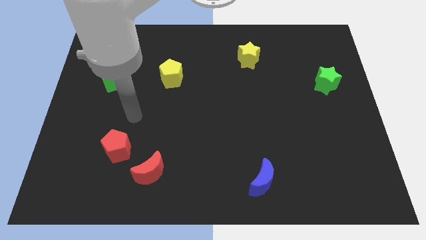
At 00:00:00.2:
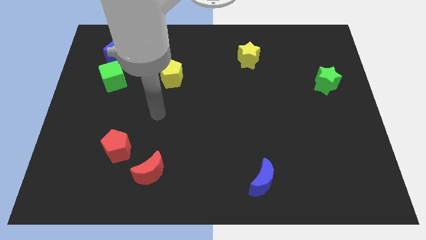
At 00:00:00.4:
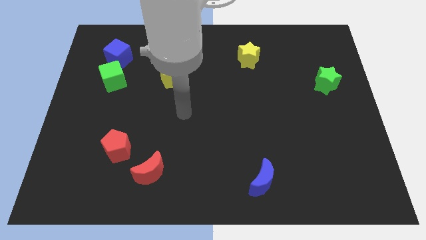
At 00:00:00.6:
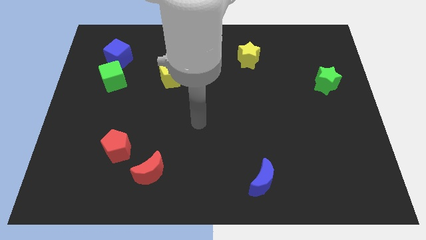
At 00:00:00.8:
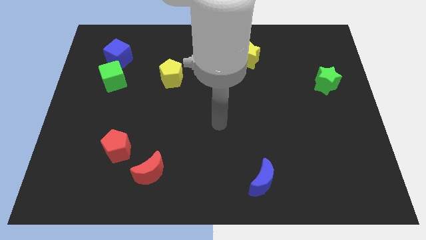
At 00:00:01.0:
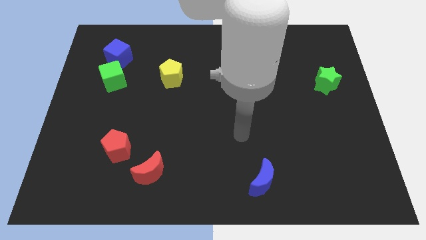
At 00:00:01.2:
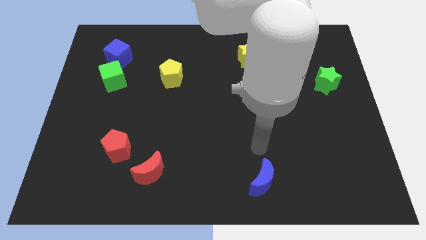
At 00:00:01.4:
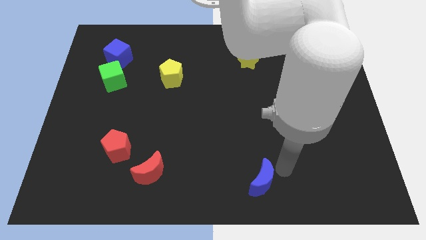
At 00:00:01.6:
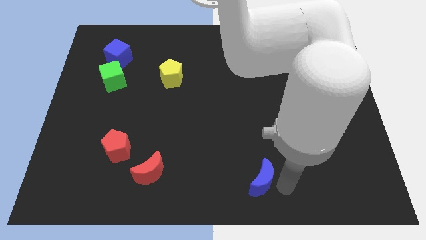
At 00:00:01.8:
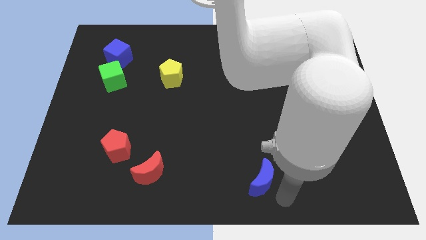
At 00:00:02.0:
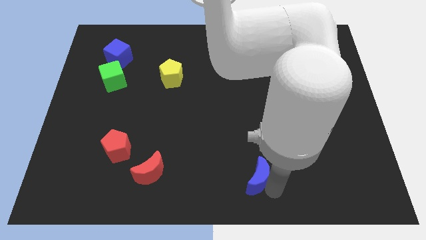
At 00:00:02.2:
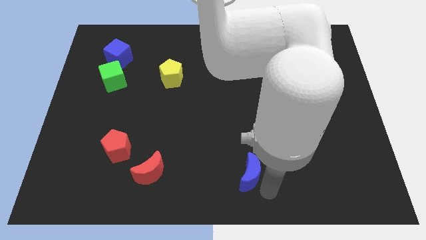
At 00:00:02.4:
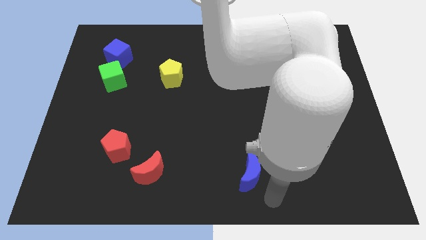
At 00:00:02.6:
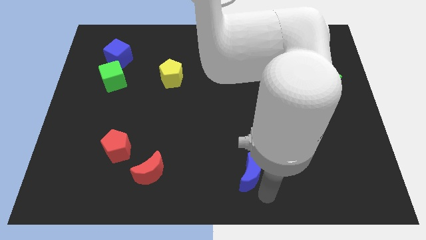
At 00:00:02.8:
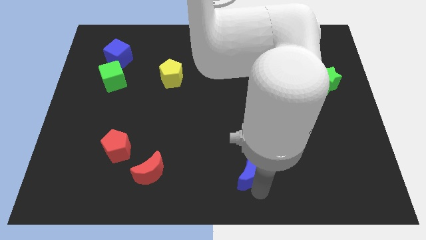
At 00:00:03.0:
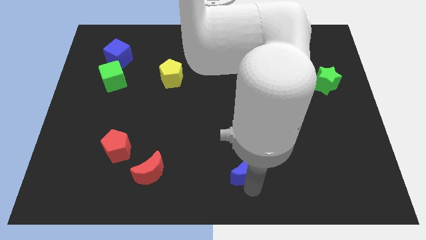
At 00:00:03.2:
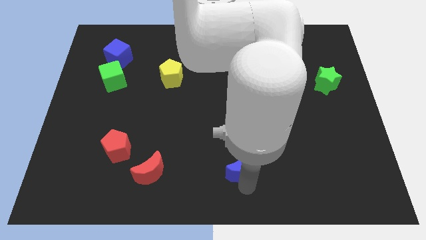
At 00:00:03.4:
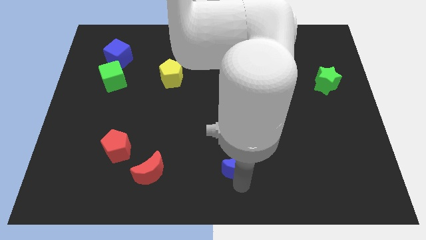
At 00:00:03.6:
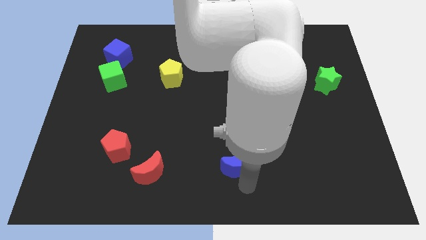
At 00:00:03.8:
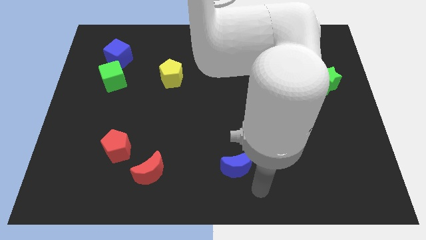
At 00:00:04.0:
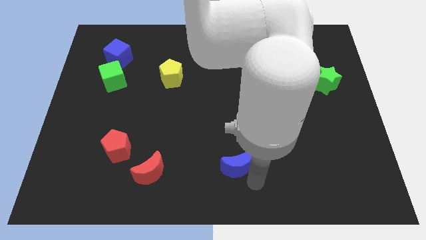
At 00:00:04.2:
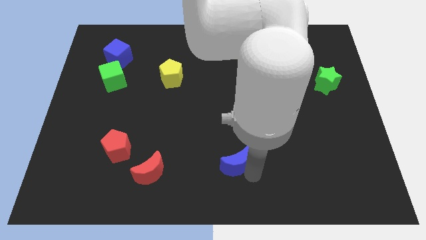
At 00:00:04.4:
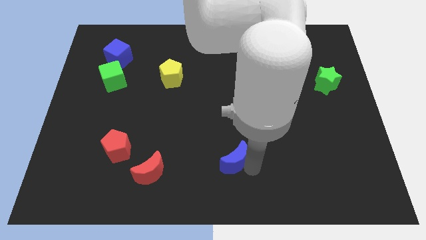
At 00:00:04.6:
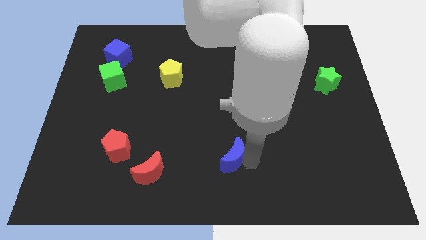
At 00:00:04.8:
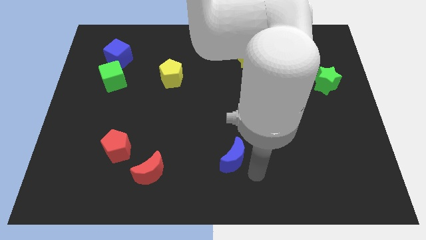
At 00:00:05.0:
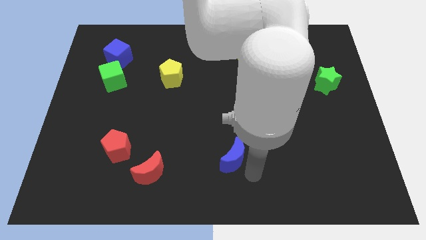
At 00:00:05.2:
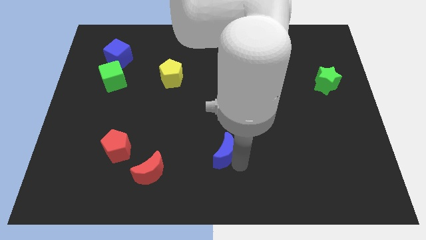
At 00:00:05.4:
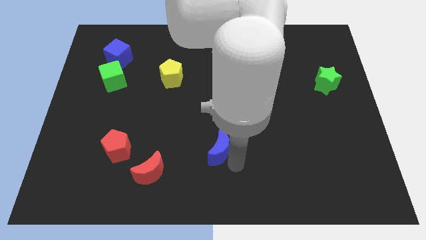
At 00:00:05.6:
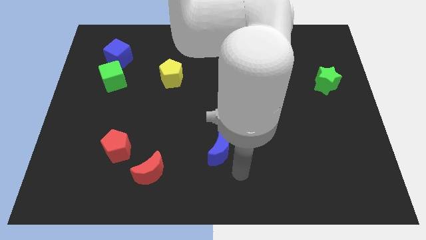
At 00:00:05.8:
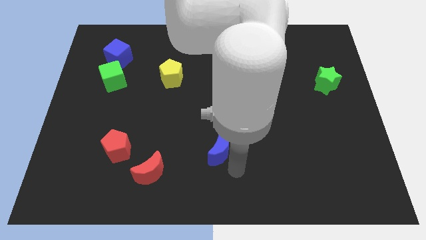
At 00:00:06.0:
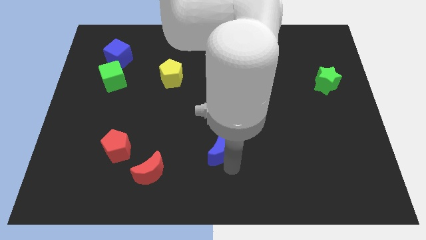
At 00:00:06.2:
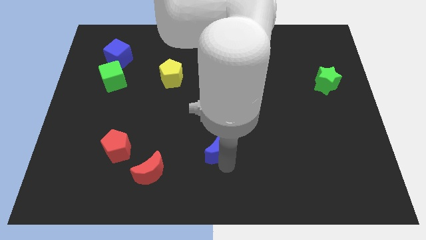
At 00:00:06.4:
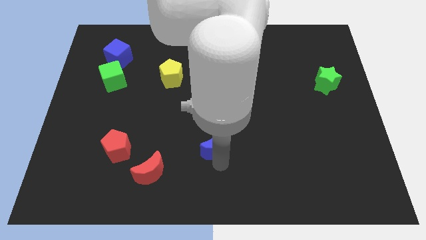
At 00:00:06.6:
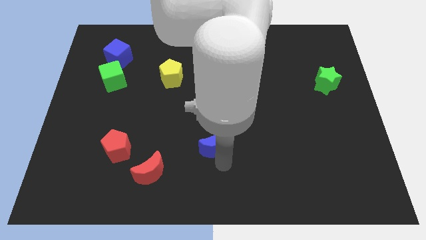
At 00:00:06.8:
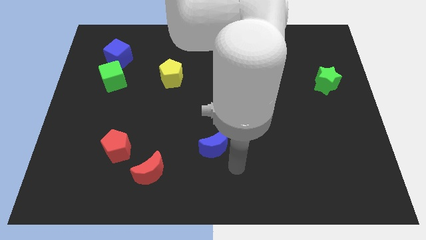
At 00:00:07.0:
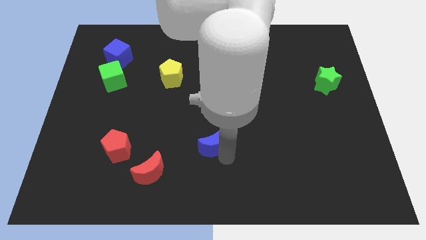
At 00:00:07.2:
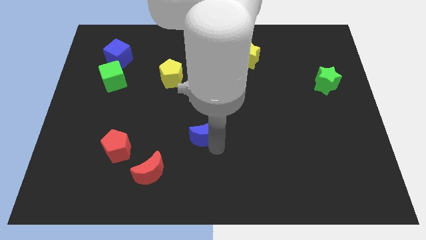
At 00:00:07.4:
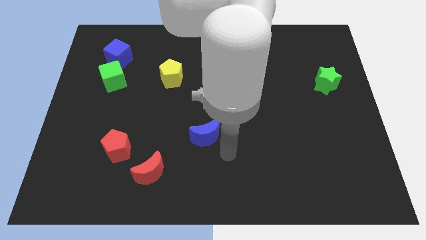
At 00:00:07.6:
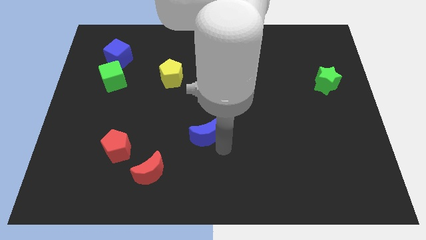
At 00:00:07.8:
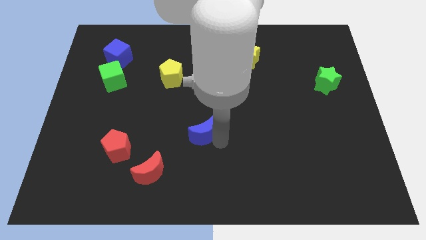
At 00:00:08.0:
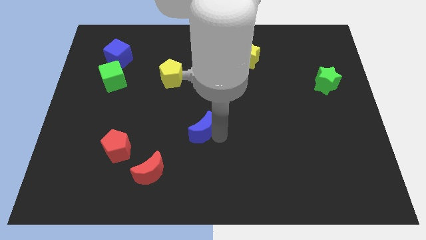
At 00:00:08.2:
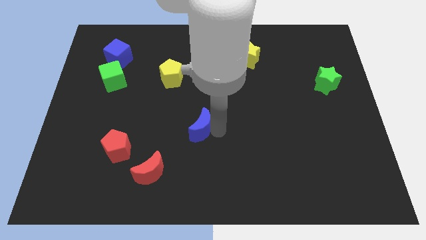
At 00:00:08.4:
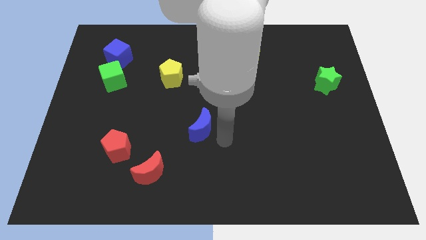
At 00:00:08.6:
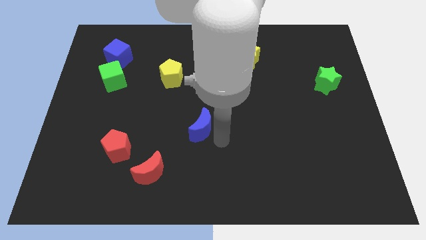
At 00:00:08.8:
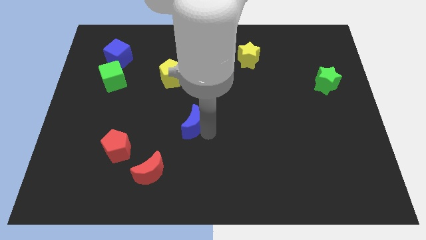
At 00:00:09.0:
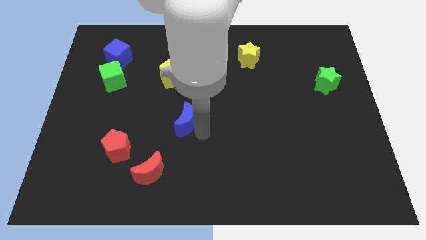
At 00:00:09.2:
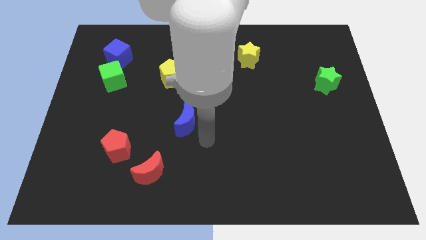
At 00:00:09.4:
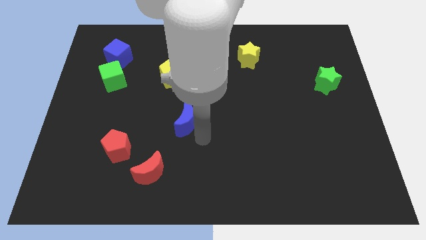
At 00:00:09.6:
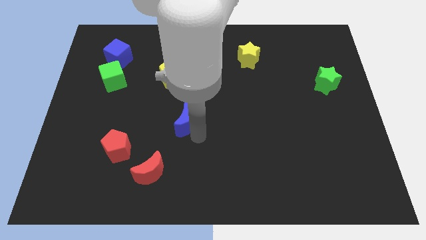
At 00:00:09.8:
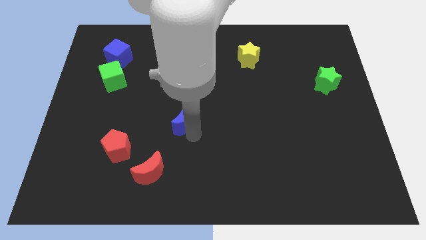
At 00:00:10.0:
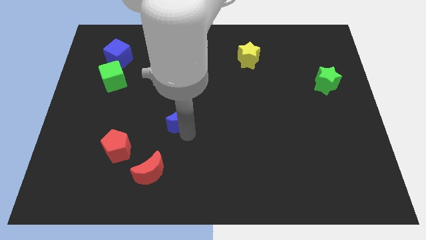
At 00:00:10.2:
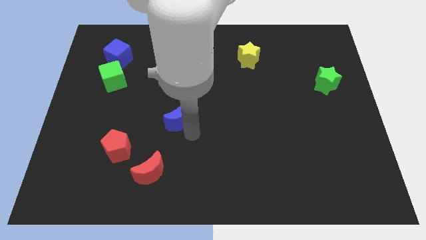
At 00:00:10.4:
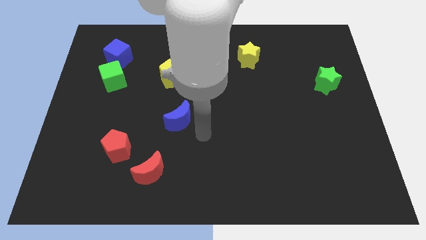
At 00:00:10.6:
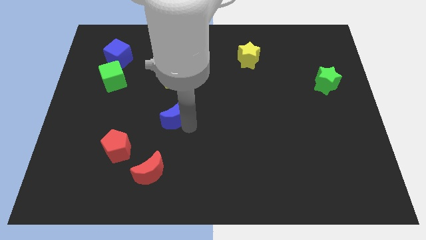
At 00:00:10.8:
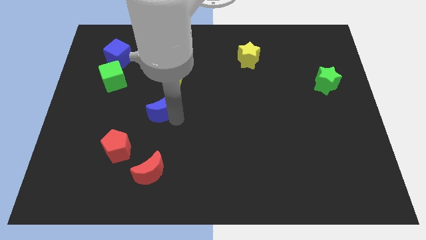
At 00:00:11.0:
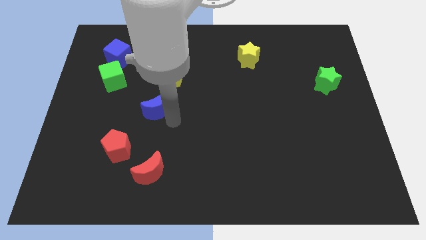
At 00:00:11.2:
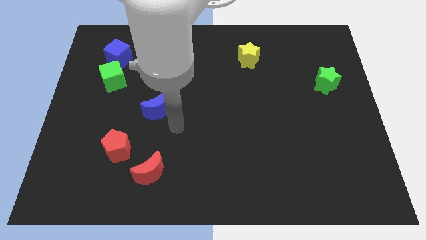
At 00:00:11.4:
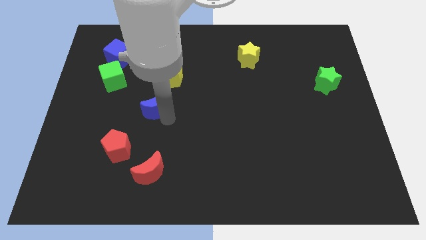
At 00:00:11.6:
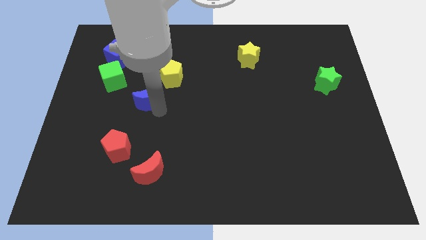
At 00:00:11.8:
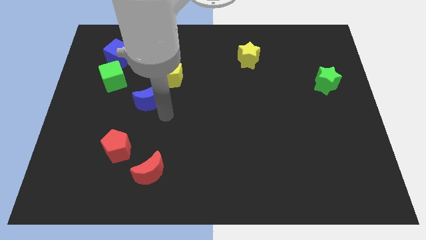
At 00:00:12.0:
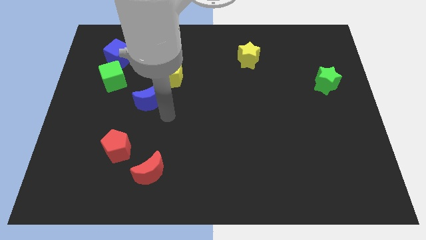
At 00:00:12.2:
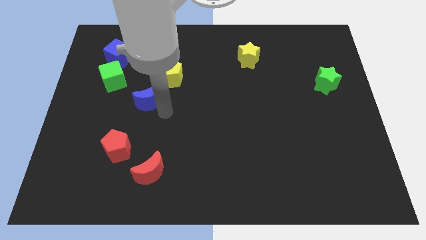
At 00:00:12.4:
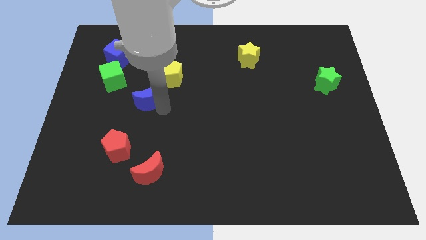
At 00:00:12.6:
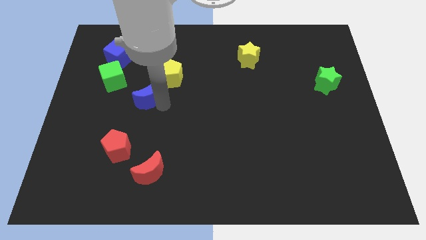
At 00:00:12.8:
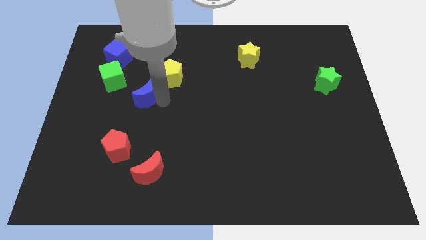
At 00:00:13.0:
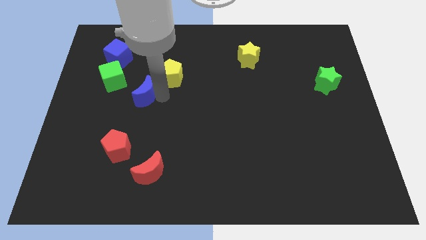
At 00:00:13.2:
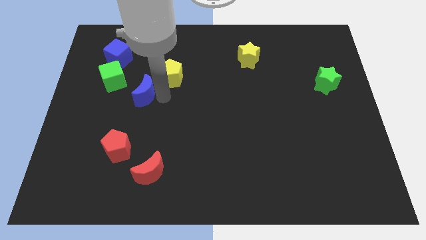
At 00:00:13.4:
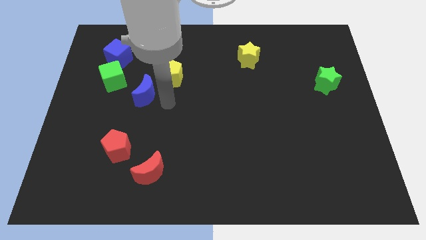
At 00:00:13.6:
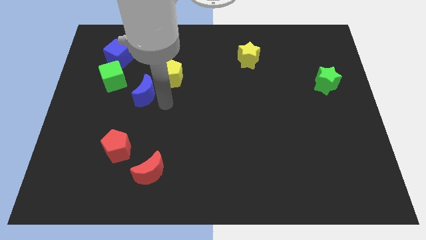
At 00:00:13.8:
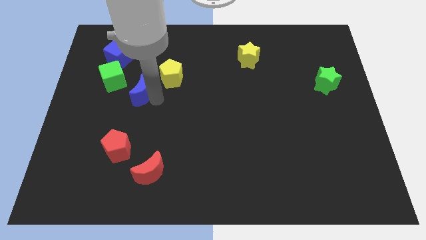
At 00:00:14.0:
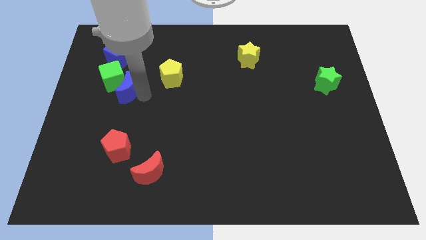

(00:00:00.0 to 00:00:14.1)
put the blue moon close to the green cube
